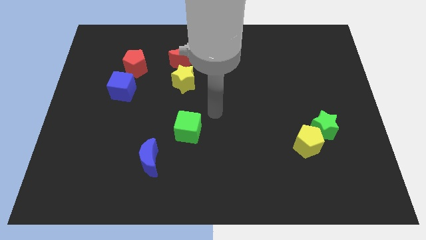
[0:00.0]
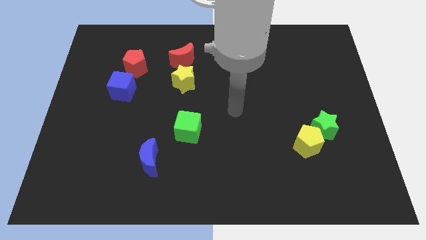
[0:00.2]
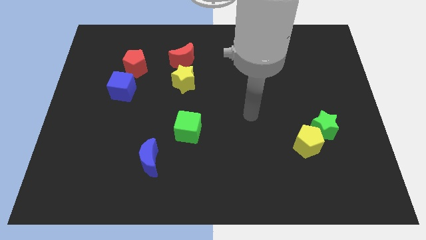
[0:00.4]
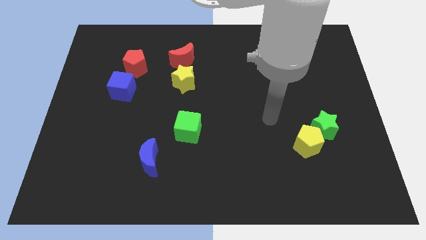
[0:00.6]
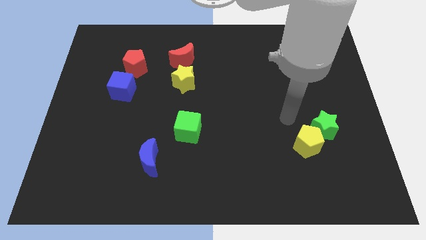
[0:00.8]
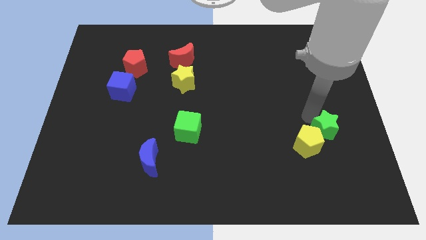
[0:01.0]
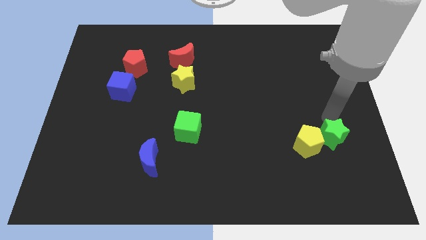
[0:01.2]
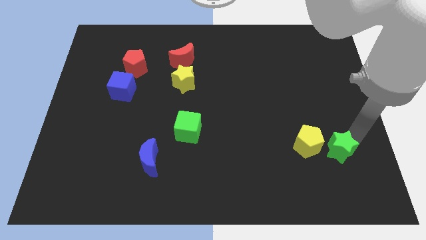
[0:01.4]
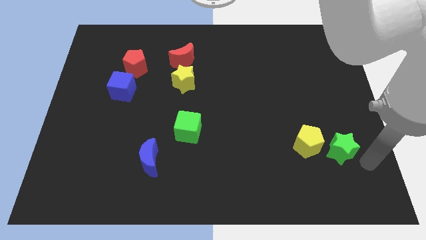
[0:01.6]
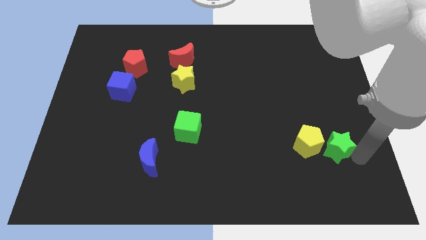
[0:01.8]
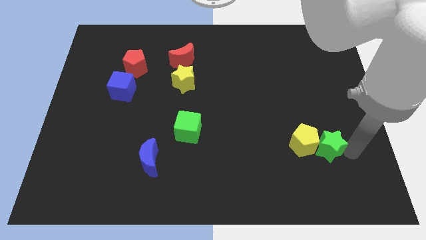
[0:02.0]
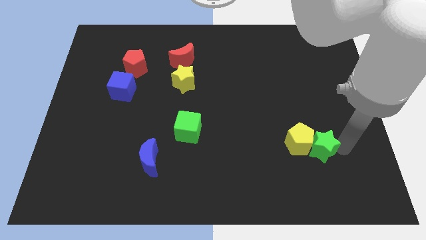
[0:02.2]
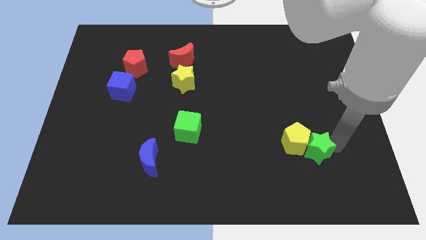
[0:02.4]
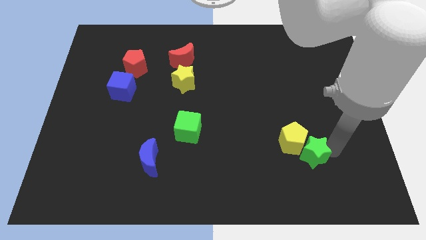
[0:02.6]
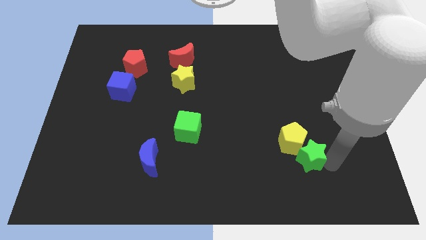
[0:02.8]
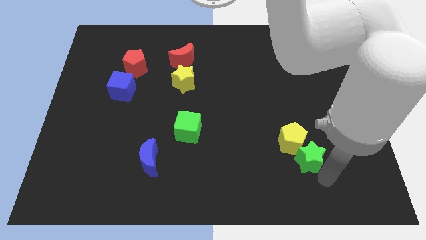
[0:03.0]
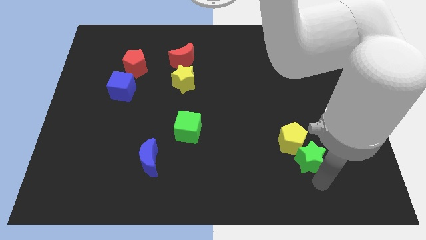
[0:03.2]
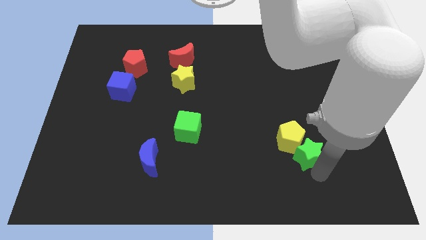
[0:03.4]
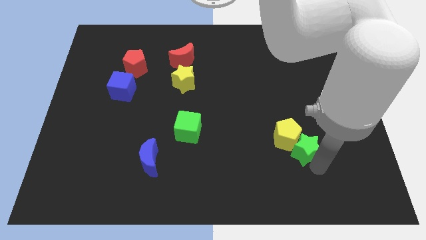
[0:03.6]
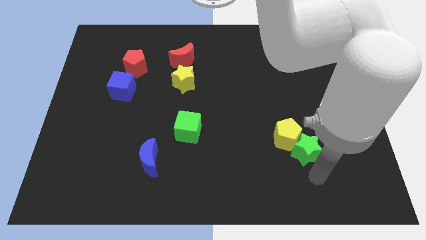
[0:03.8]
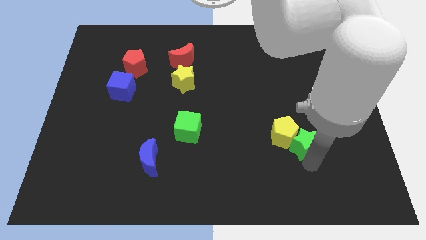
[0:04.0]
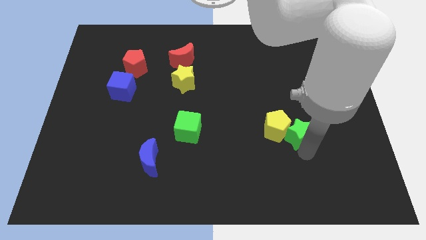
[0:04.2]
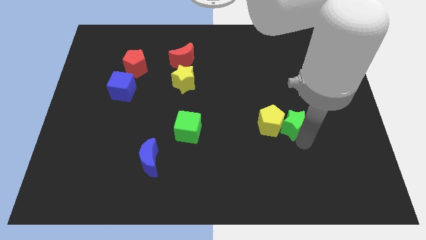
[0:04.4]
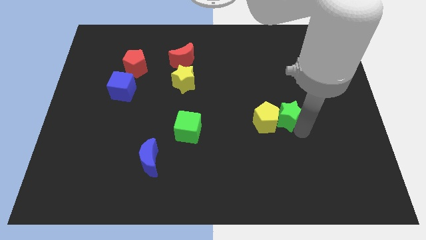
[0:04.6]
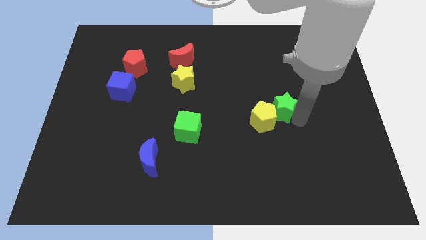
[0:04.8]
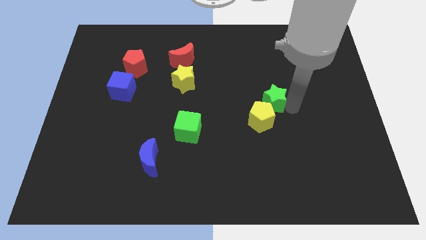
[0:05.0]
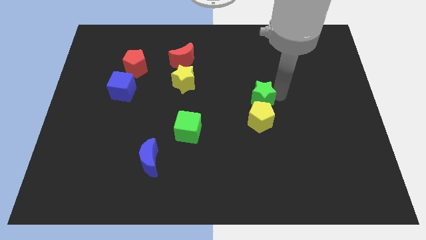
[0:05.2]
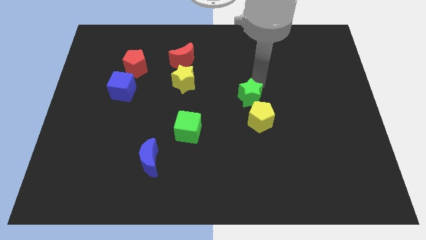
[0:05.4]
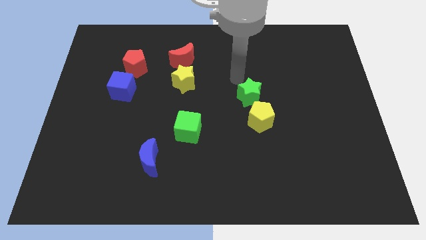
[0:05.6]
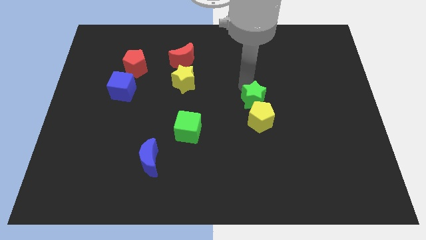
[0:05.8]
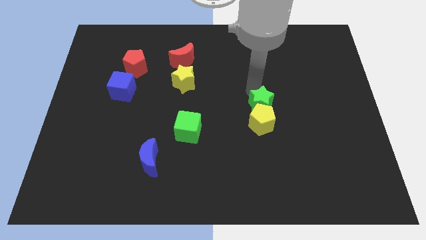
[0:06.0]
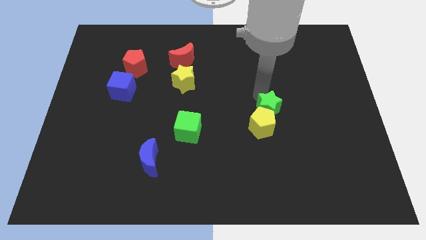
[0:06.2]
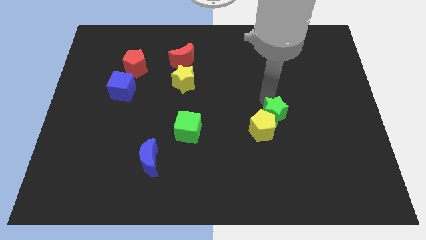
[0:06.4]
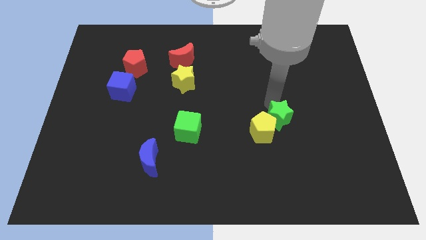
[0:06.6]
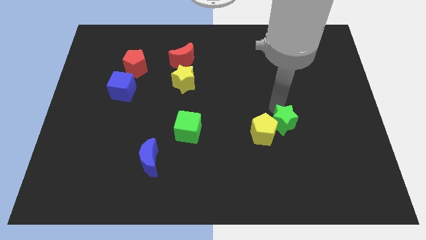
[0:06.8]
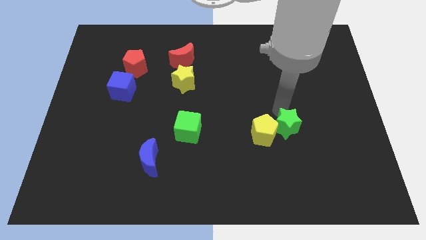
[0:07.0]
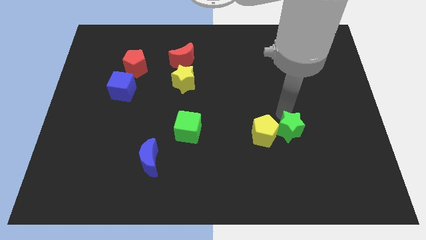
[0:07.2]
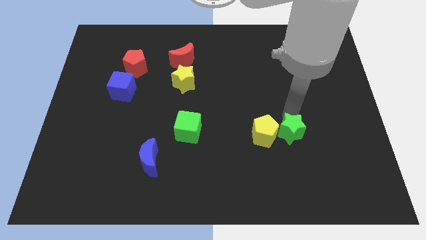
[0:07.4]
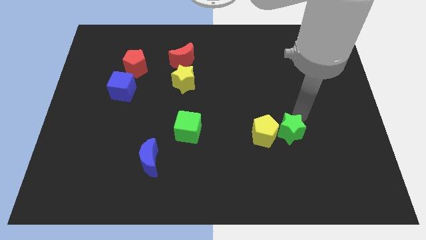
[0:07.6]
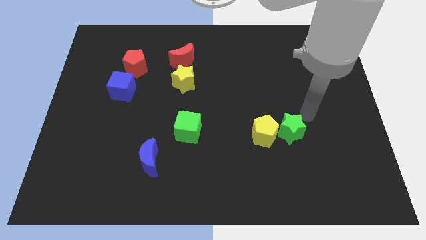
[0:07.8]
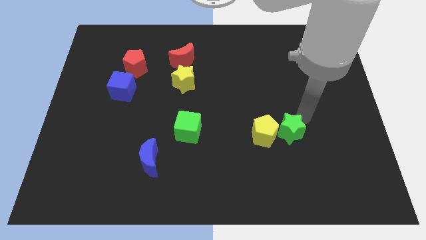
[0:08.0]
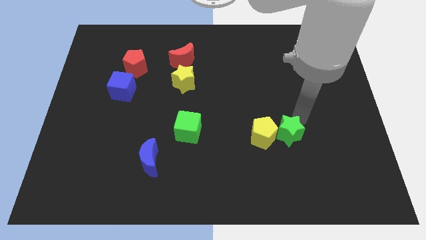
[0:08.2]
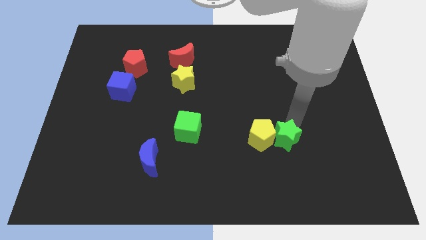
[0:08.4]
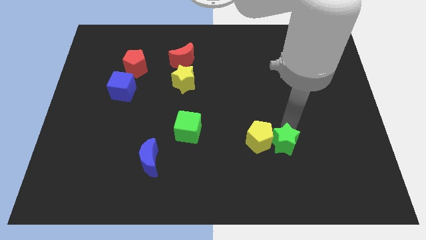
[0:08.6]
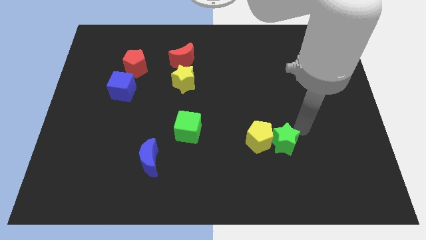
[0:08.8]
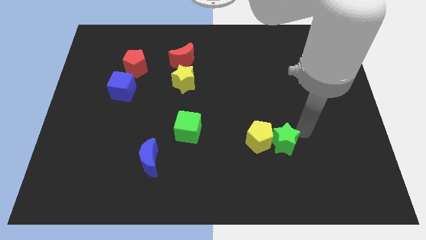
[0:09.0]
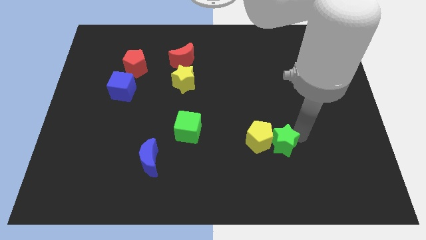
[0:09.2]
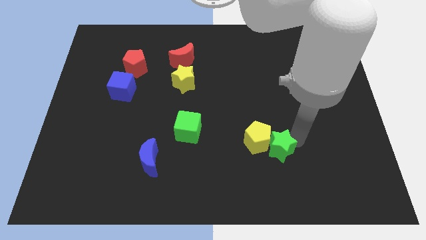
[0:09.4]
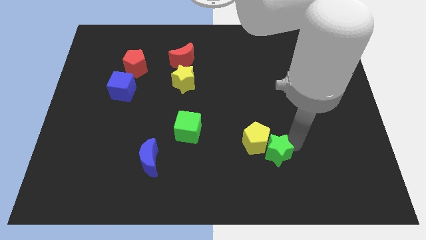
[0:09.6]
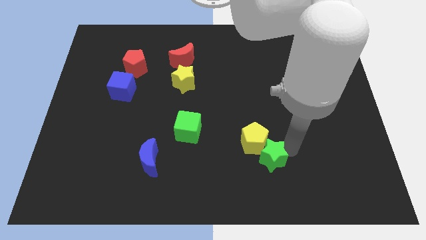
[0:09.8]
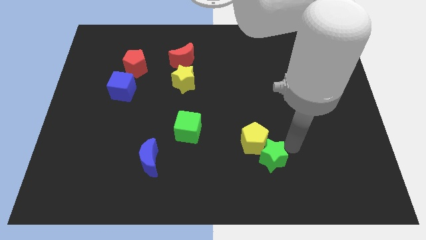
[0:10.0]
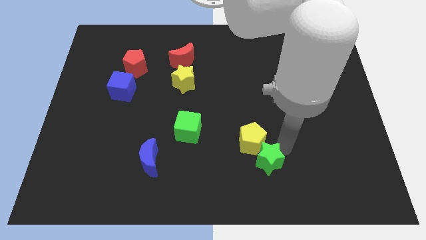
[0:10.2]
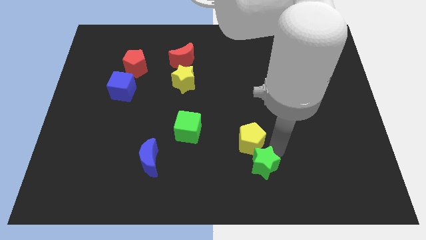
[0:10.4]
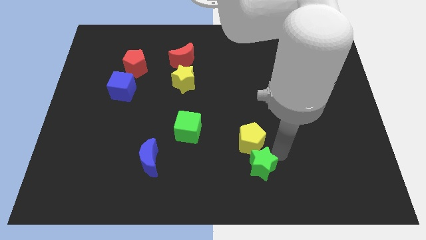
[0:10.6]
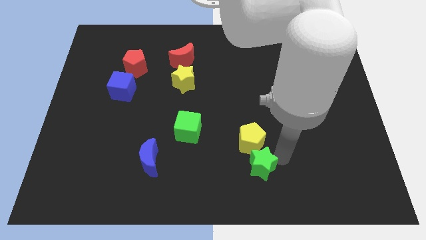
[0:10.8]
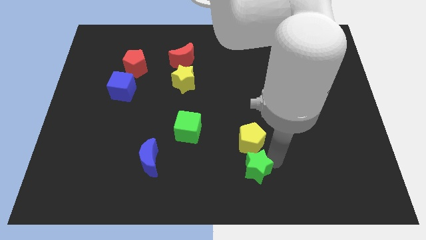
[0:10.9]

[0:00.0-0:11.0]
put the green star to the bottom

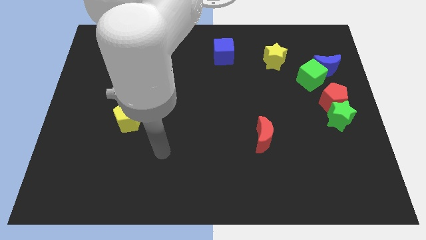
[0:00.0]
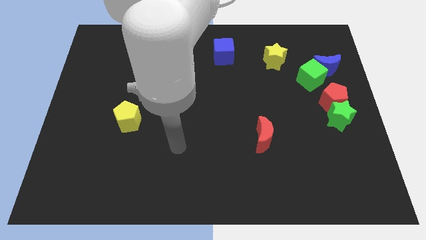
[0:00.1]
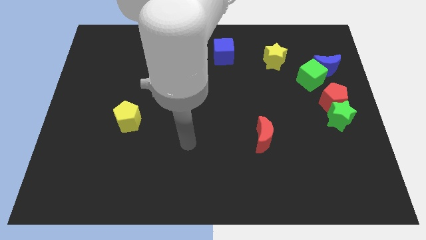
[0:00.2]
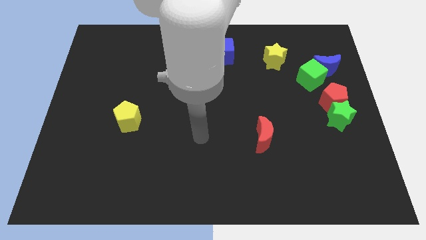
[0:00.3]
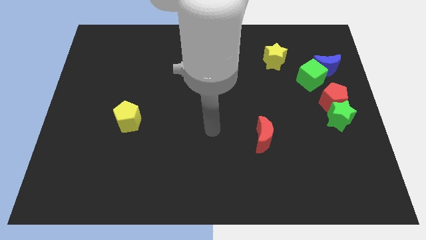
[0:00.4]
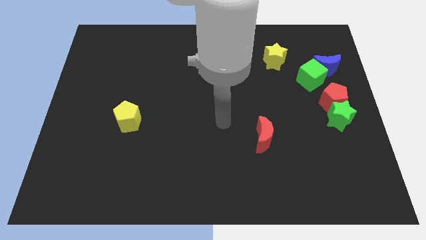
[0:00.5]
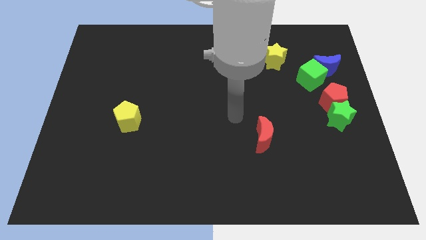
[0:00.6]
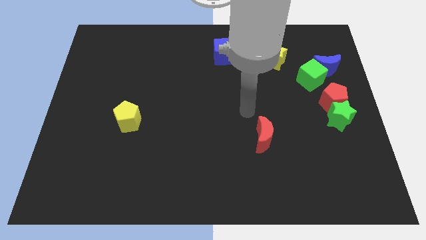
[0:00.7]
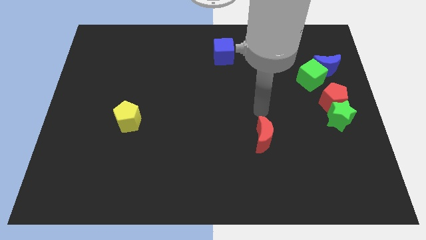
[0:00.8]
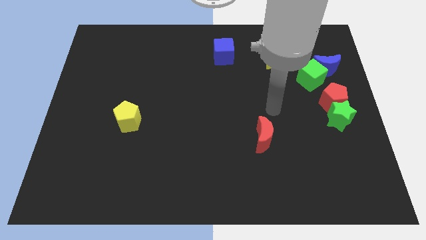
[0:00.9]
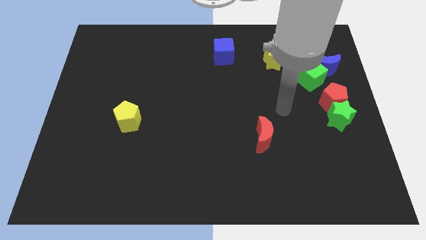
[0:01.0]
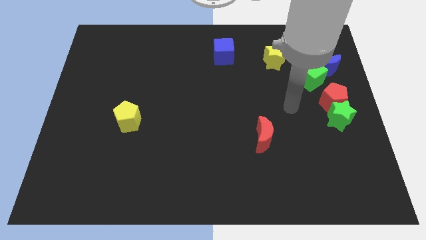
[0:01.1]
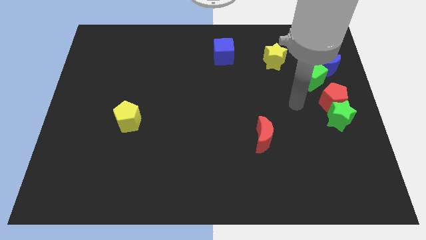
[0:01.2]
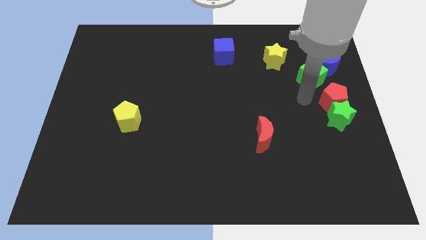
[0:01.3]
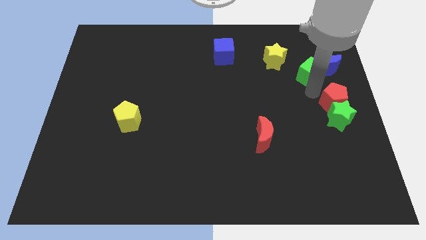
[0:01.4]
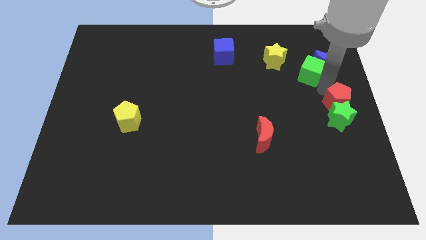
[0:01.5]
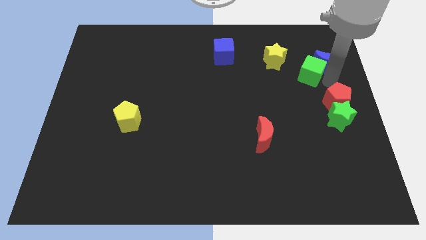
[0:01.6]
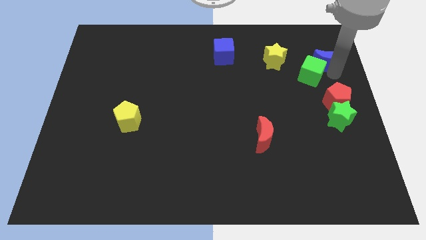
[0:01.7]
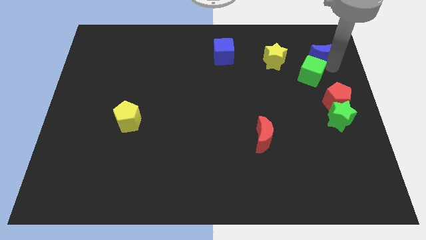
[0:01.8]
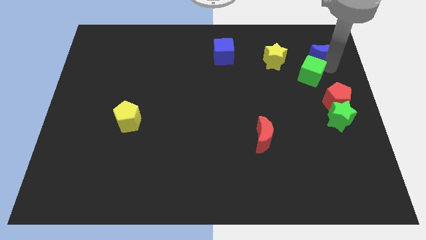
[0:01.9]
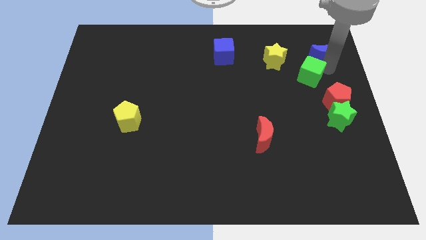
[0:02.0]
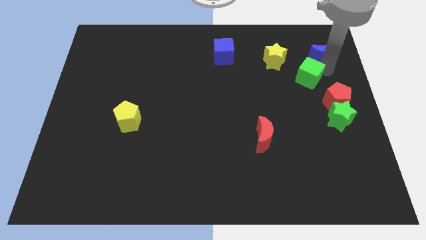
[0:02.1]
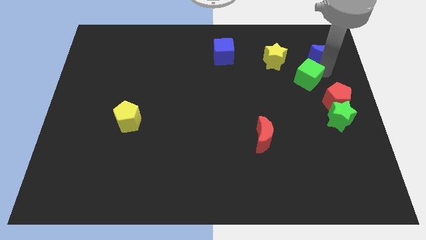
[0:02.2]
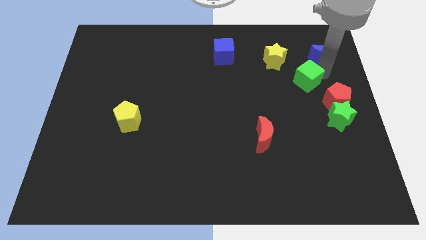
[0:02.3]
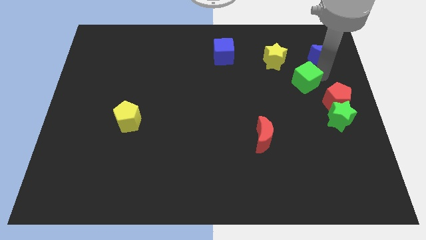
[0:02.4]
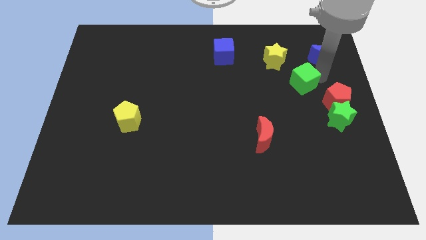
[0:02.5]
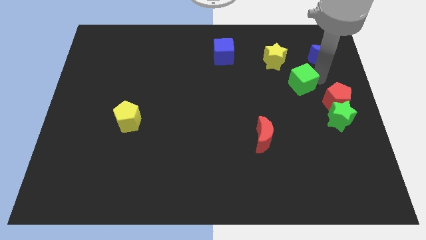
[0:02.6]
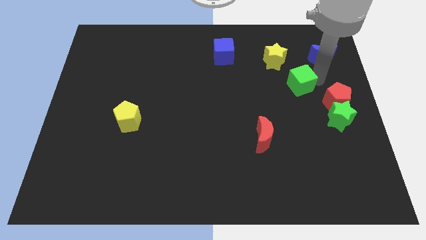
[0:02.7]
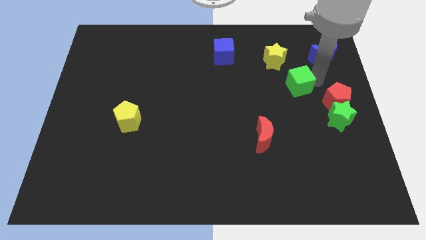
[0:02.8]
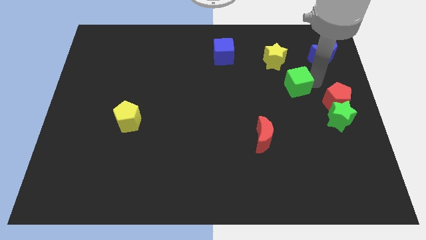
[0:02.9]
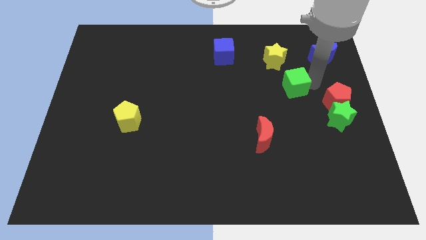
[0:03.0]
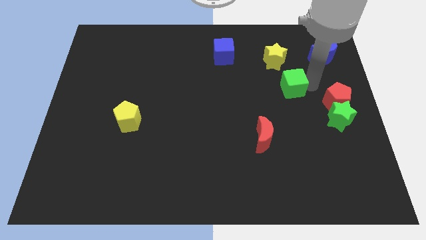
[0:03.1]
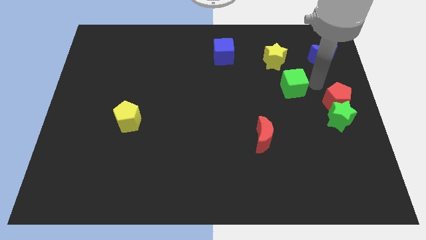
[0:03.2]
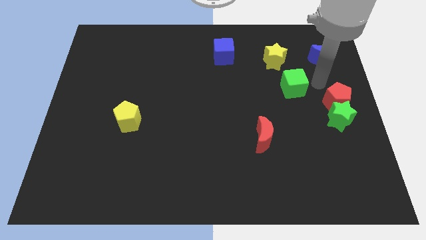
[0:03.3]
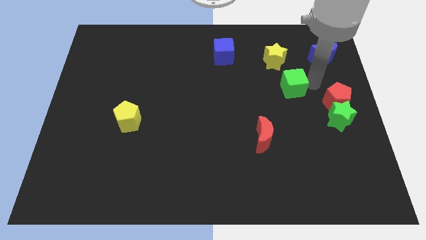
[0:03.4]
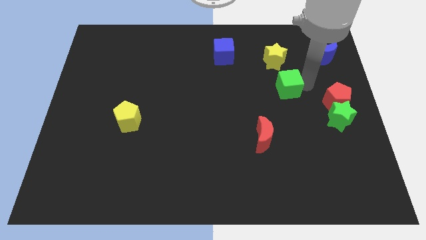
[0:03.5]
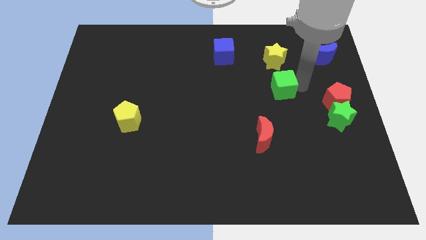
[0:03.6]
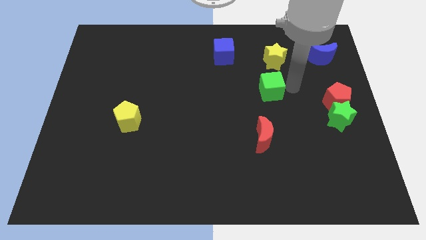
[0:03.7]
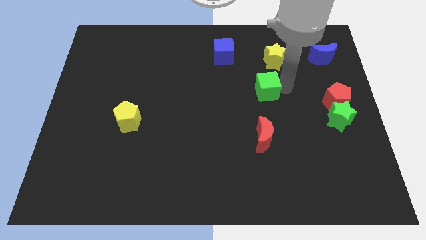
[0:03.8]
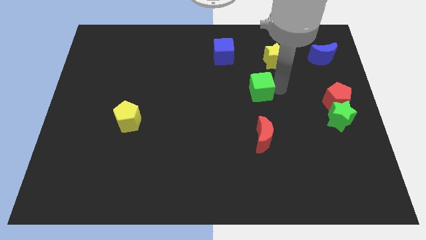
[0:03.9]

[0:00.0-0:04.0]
push the green cube to the center of the board
